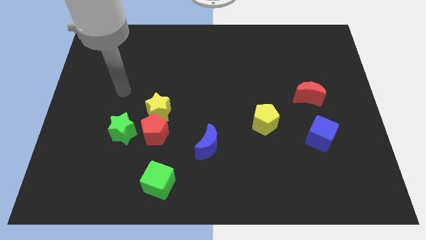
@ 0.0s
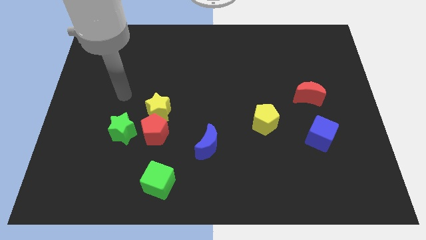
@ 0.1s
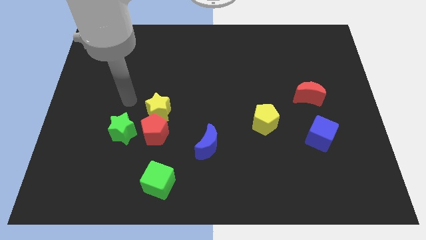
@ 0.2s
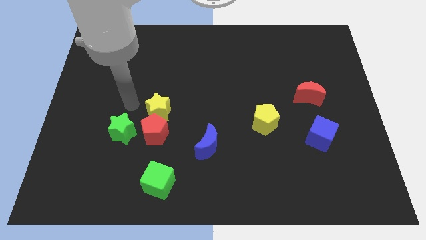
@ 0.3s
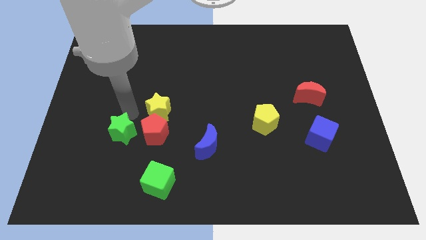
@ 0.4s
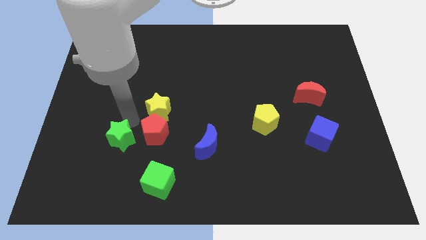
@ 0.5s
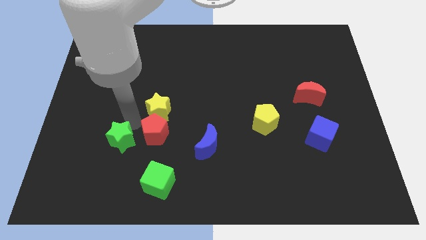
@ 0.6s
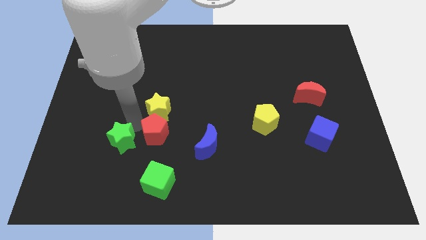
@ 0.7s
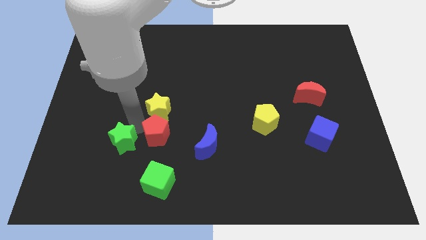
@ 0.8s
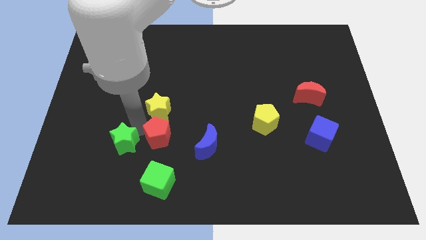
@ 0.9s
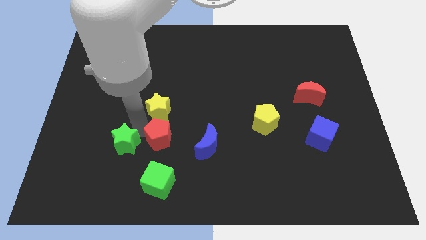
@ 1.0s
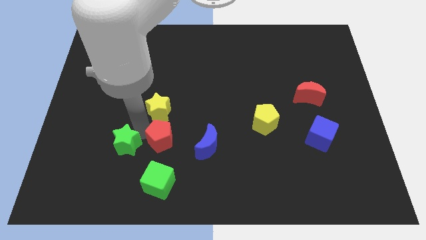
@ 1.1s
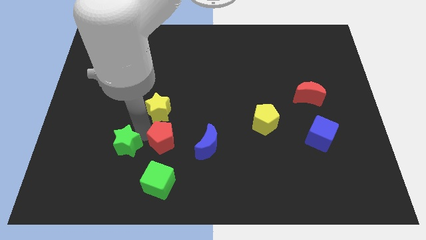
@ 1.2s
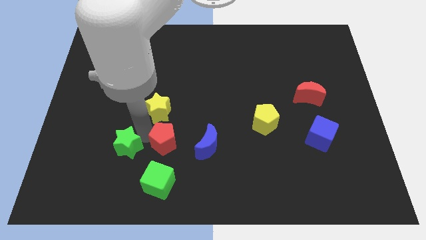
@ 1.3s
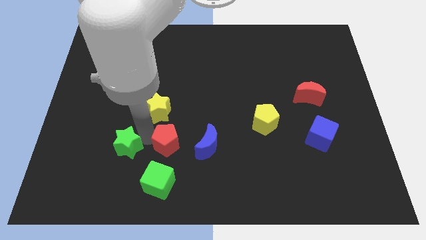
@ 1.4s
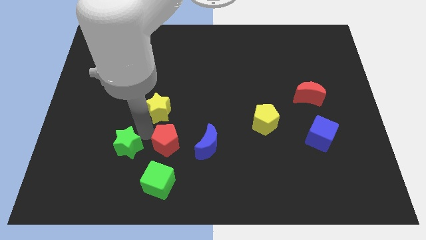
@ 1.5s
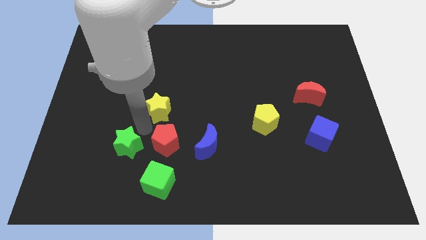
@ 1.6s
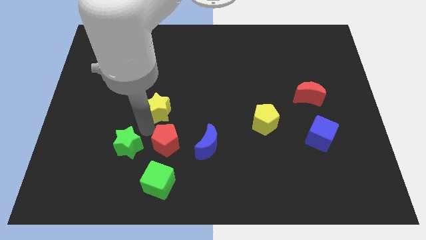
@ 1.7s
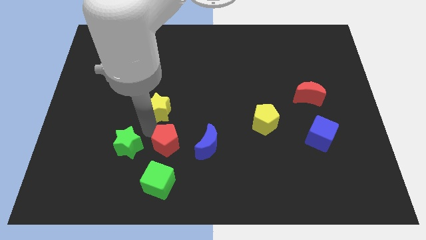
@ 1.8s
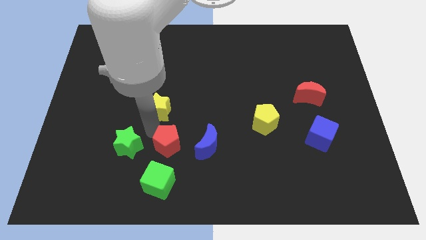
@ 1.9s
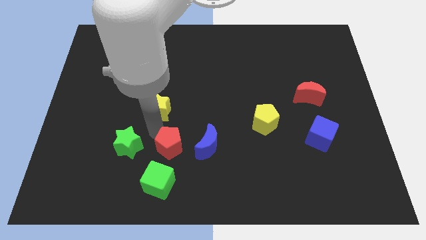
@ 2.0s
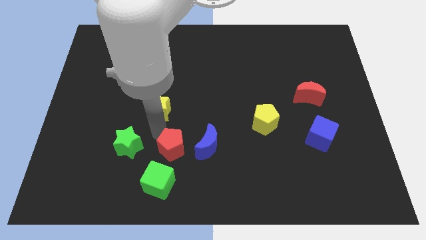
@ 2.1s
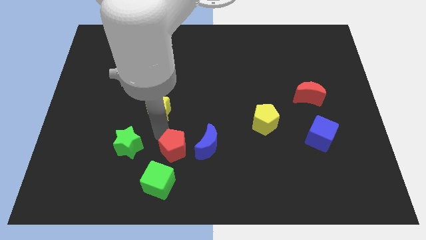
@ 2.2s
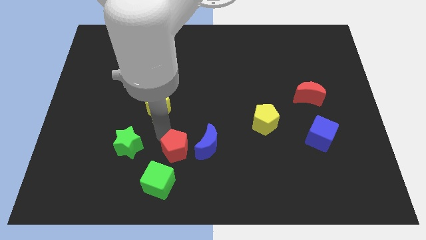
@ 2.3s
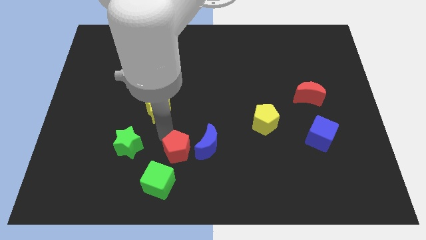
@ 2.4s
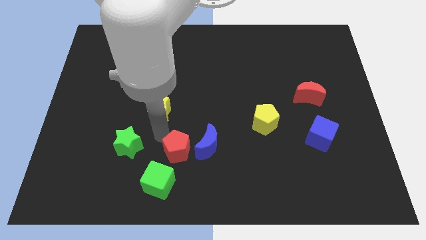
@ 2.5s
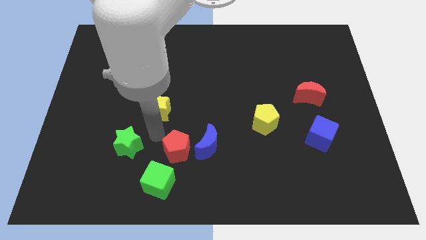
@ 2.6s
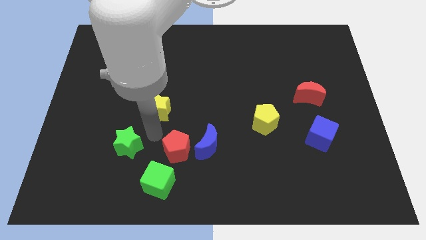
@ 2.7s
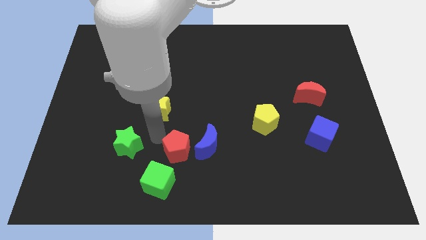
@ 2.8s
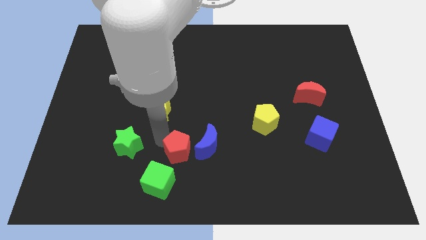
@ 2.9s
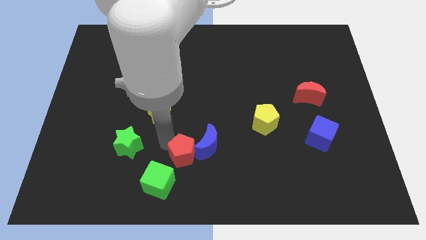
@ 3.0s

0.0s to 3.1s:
pull the red pentagon apart from the yellow star and green star

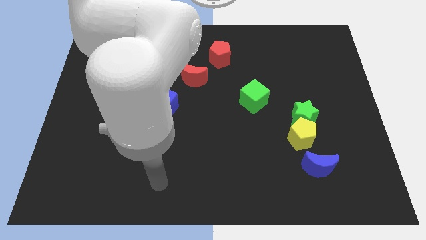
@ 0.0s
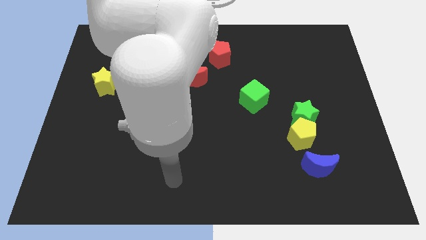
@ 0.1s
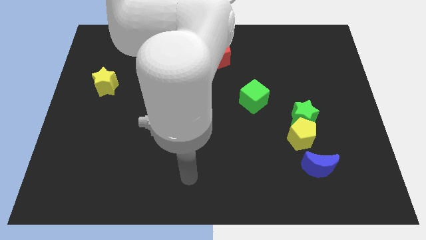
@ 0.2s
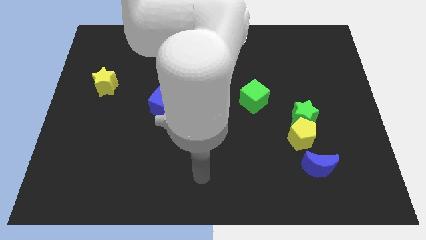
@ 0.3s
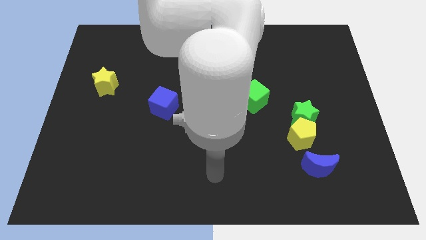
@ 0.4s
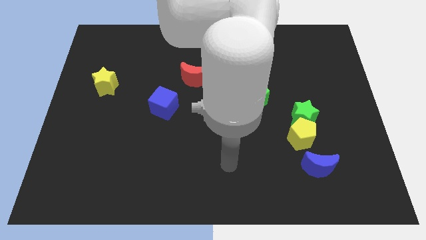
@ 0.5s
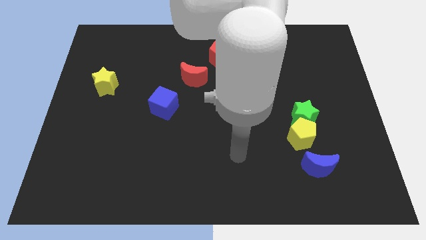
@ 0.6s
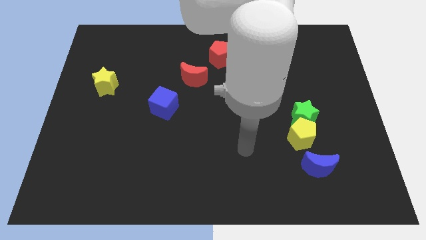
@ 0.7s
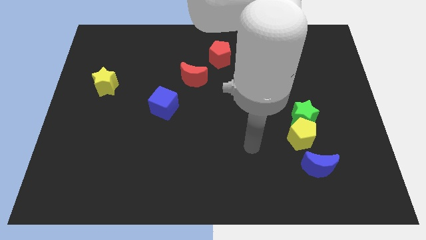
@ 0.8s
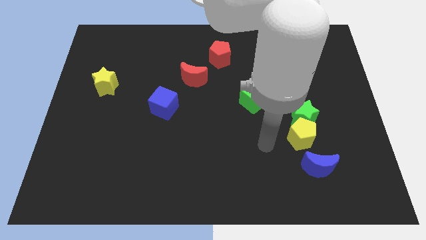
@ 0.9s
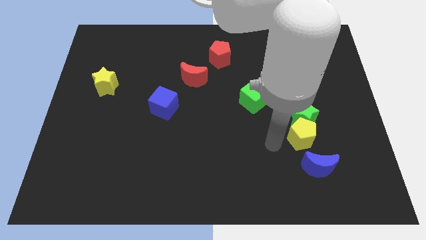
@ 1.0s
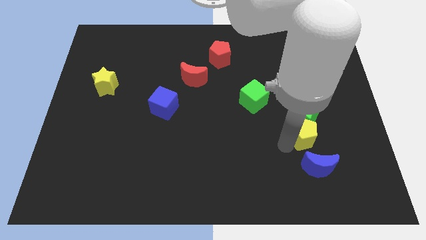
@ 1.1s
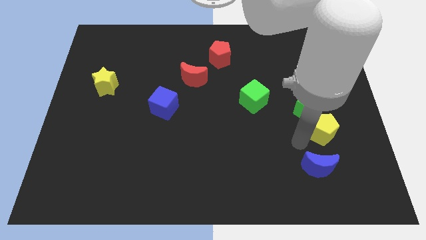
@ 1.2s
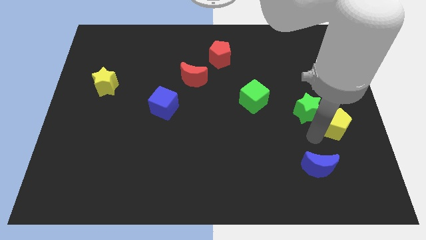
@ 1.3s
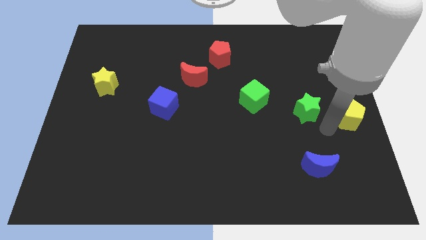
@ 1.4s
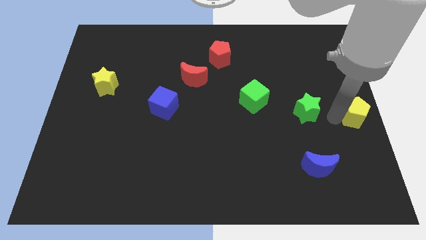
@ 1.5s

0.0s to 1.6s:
move the green star away from the yellow pentagon

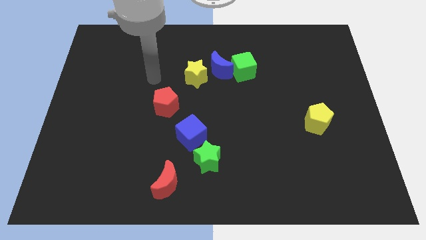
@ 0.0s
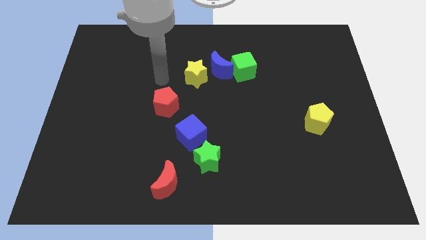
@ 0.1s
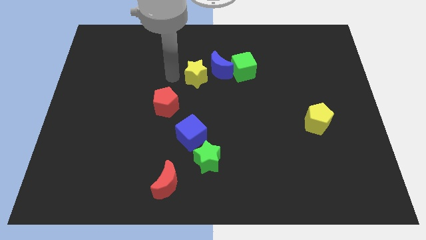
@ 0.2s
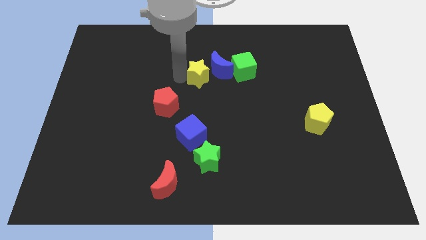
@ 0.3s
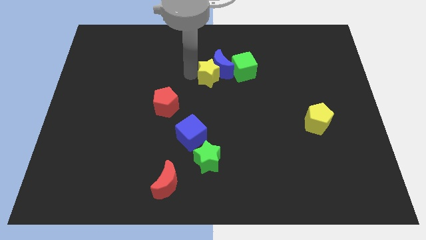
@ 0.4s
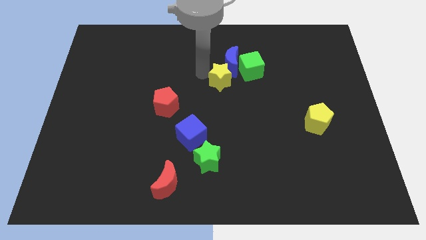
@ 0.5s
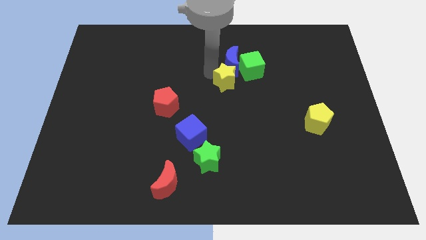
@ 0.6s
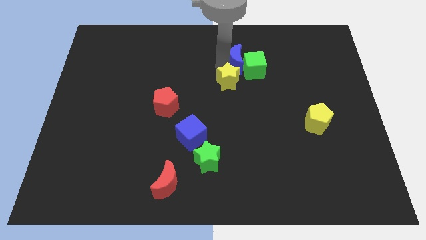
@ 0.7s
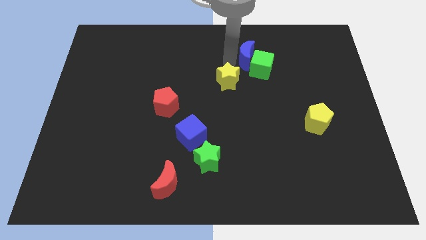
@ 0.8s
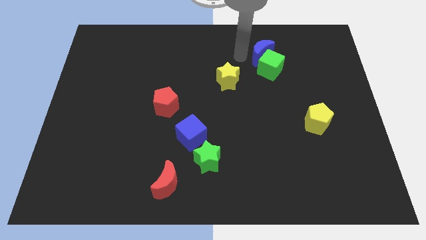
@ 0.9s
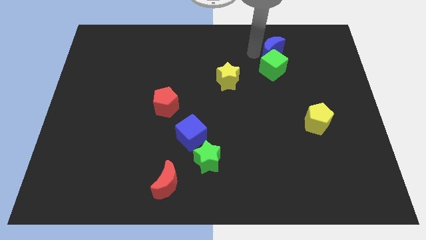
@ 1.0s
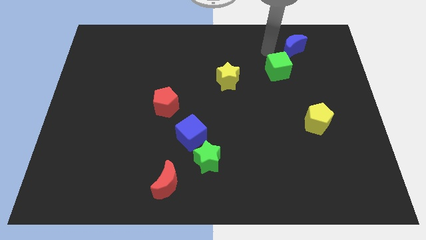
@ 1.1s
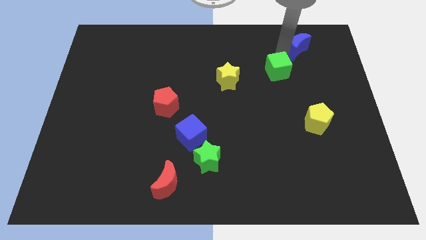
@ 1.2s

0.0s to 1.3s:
move the green cube away from the blue moon

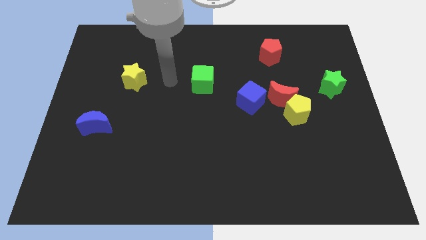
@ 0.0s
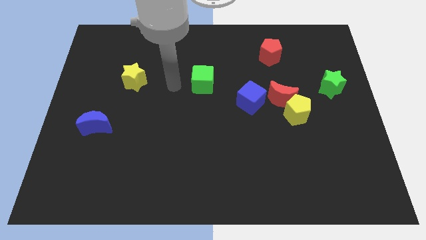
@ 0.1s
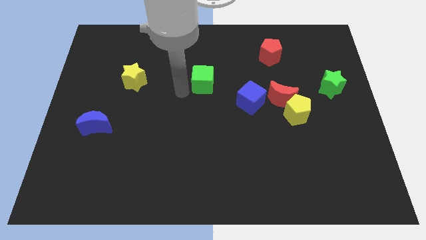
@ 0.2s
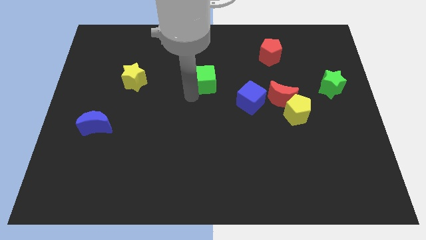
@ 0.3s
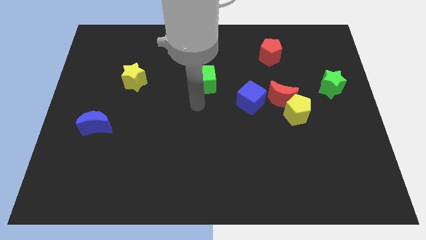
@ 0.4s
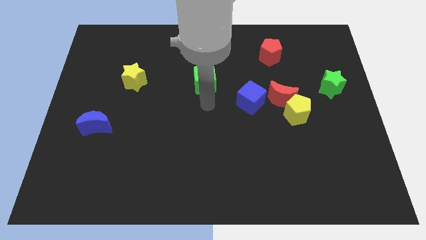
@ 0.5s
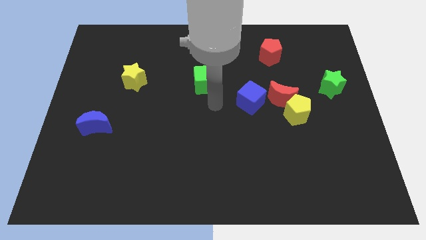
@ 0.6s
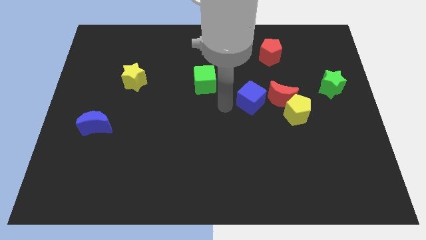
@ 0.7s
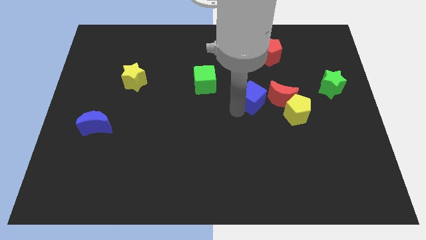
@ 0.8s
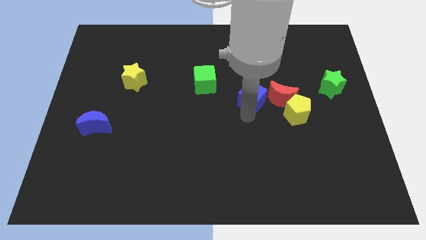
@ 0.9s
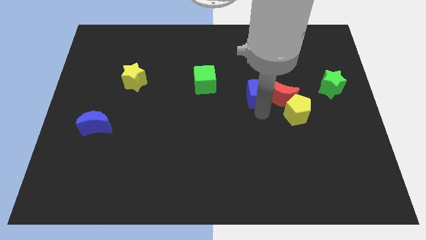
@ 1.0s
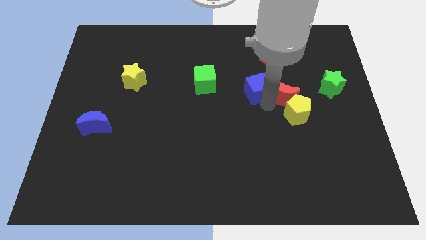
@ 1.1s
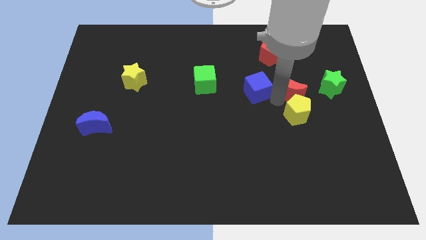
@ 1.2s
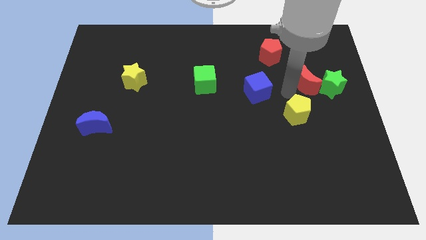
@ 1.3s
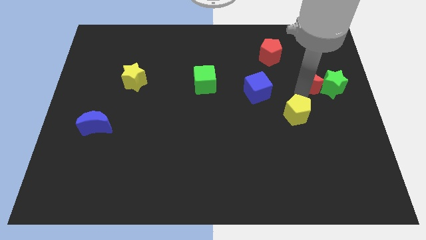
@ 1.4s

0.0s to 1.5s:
pull the yellow pentagon apart from the red moon

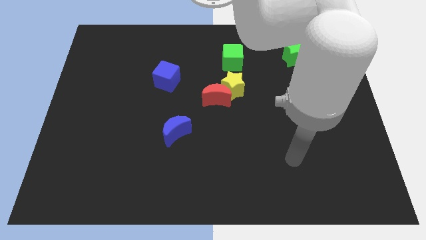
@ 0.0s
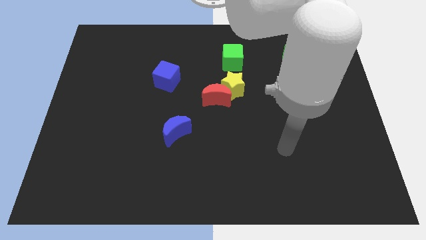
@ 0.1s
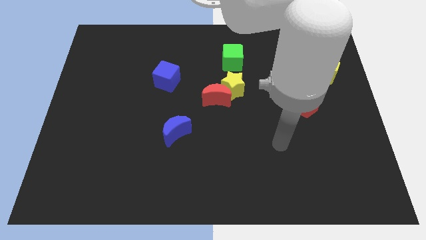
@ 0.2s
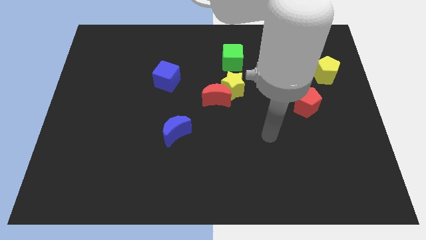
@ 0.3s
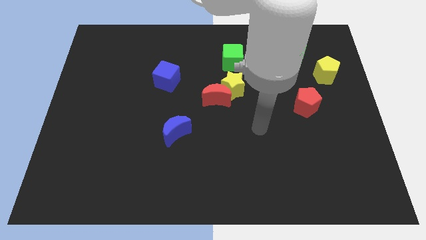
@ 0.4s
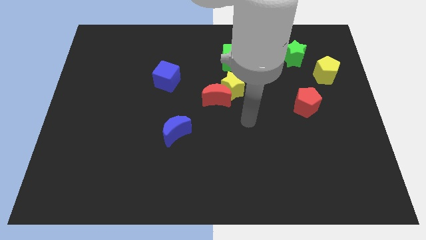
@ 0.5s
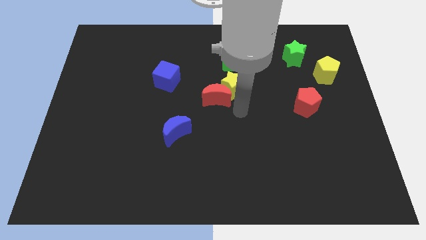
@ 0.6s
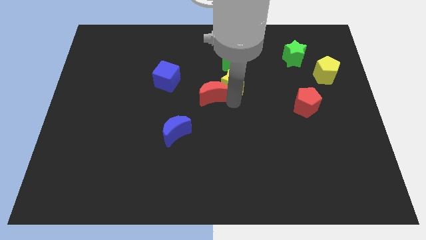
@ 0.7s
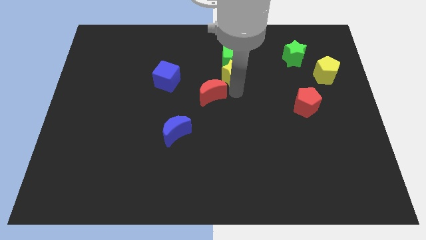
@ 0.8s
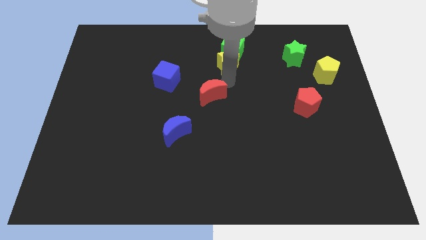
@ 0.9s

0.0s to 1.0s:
separate the red moon from the yellow star

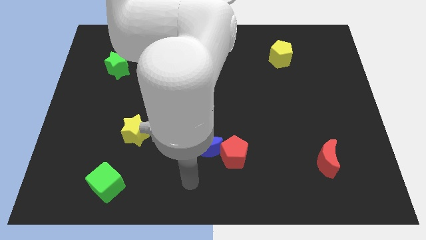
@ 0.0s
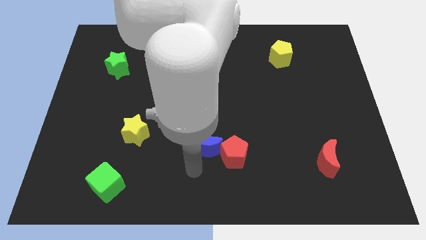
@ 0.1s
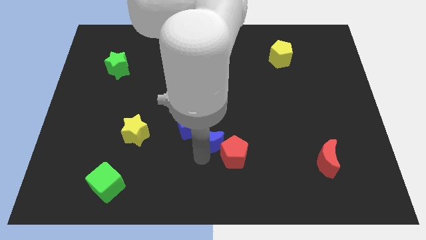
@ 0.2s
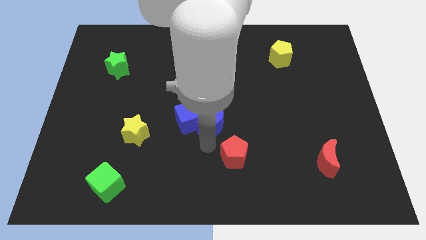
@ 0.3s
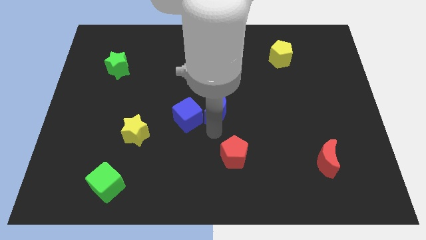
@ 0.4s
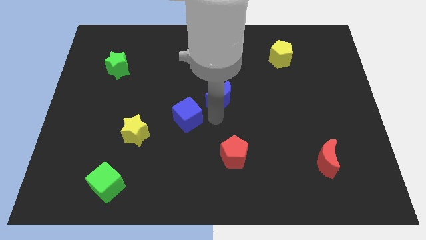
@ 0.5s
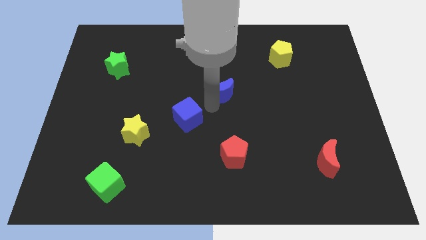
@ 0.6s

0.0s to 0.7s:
separate the blue cube from the blue moon

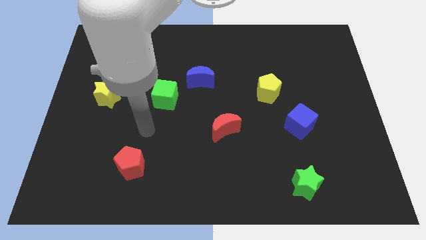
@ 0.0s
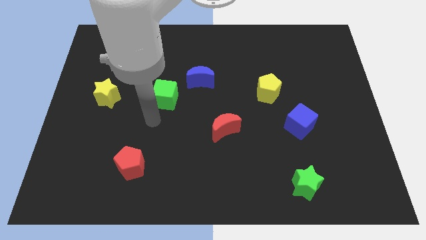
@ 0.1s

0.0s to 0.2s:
pull the blue moon apart from the green cube
